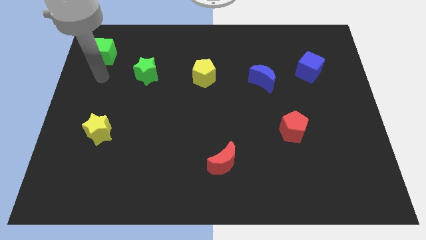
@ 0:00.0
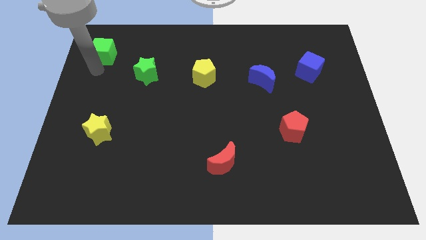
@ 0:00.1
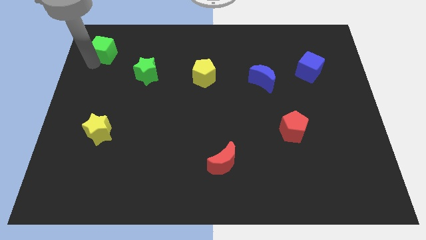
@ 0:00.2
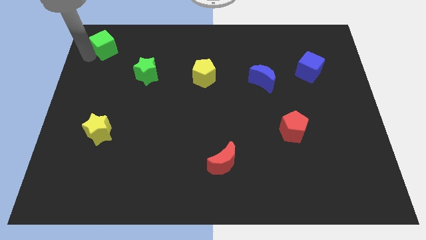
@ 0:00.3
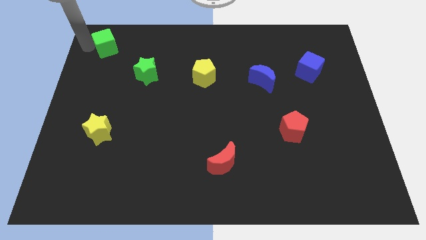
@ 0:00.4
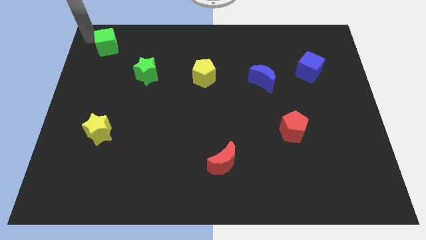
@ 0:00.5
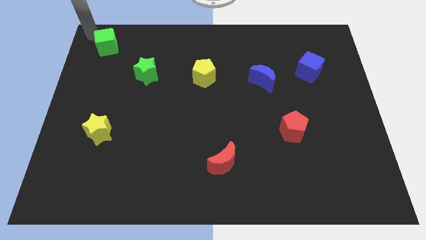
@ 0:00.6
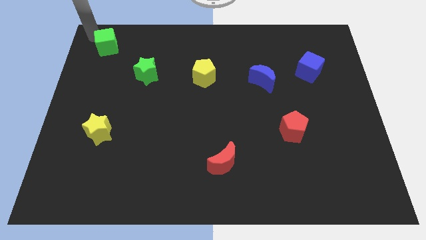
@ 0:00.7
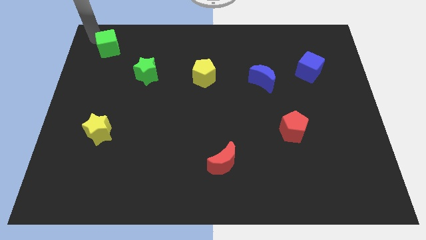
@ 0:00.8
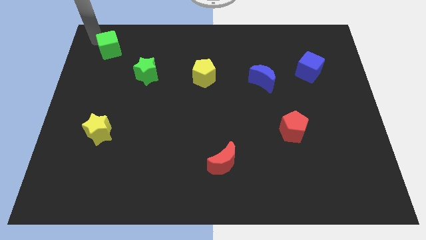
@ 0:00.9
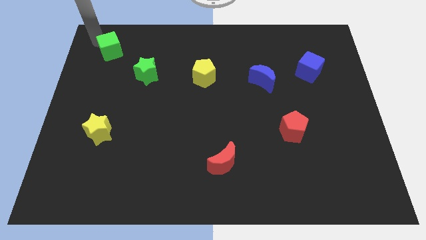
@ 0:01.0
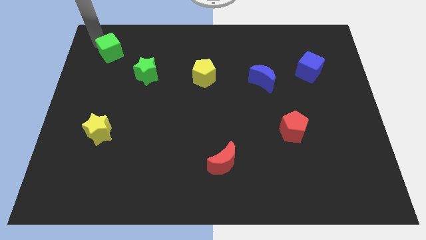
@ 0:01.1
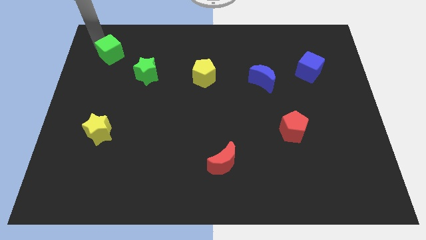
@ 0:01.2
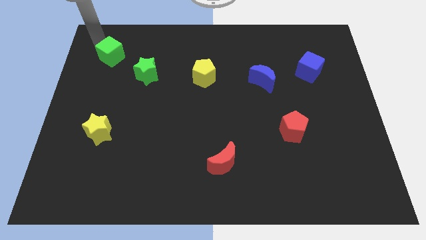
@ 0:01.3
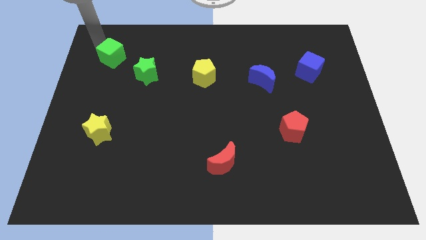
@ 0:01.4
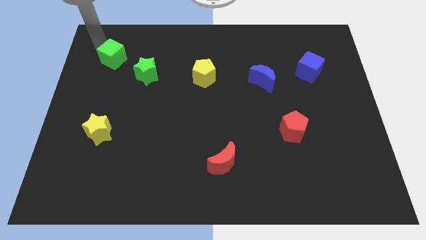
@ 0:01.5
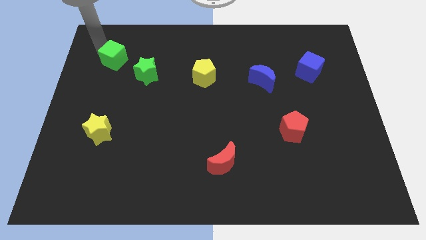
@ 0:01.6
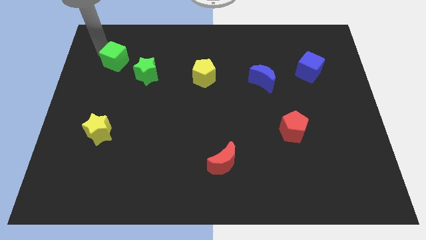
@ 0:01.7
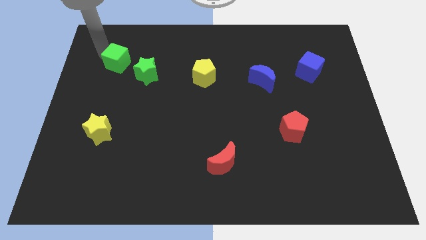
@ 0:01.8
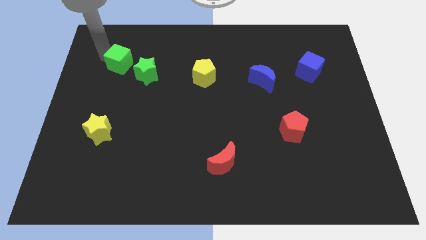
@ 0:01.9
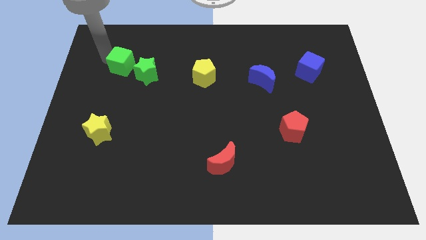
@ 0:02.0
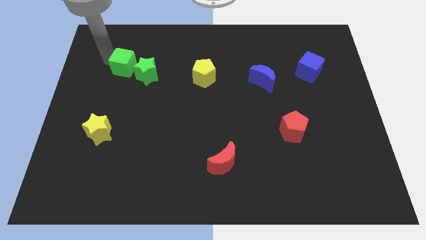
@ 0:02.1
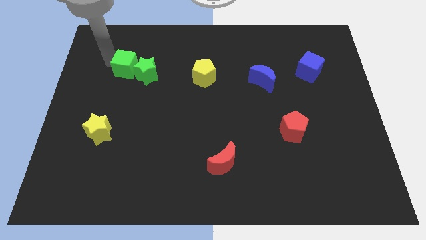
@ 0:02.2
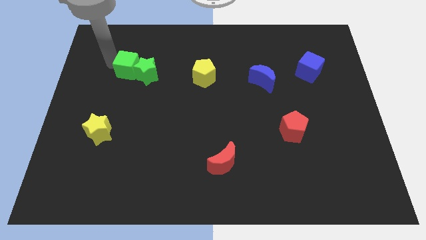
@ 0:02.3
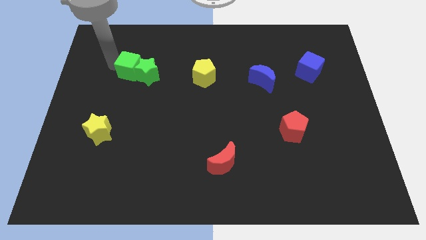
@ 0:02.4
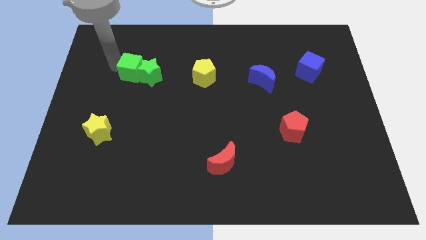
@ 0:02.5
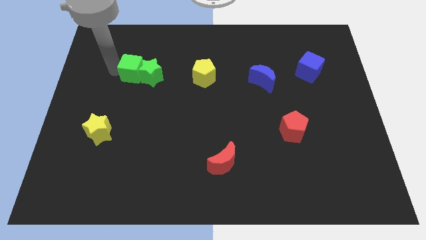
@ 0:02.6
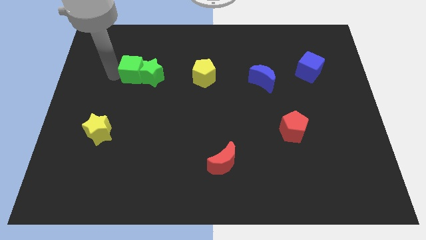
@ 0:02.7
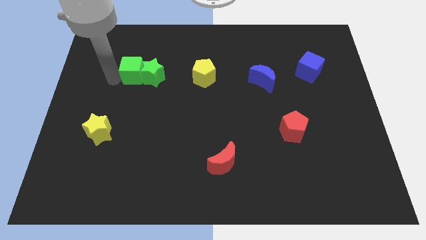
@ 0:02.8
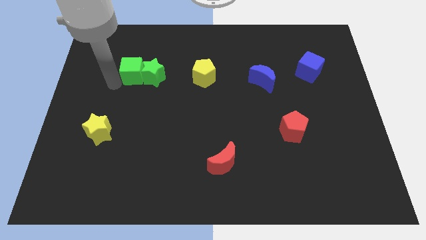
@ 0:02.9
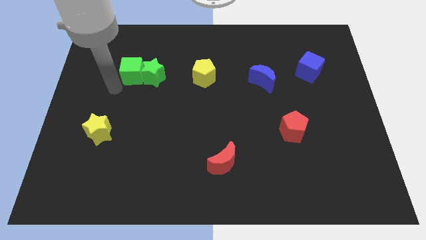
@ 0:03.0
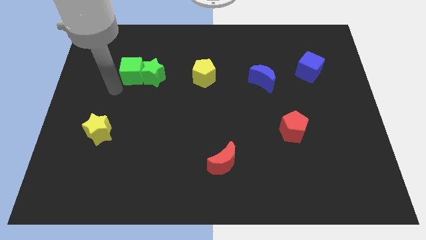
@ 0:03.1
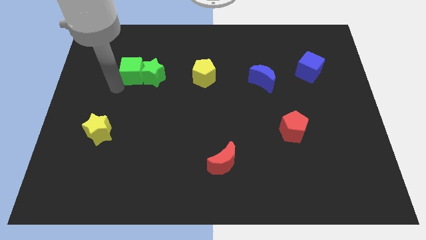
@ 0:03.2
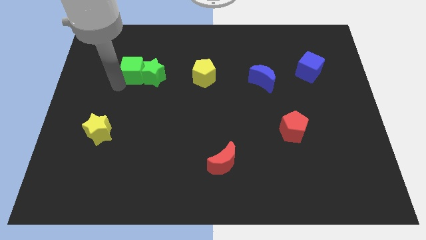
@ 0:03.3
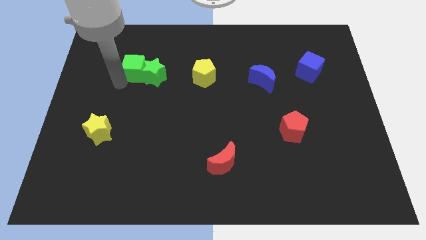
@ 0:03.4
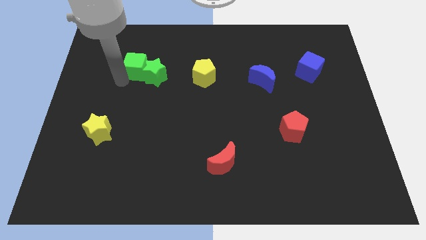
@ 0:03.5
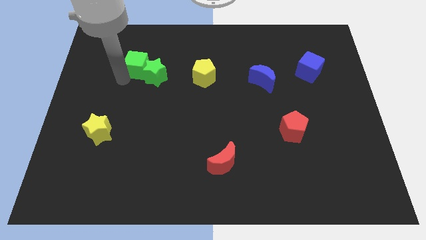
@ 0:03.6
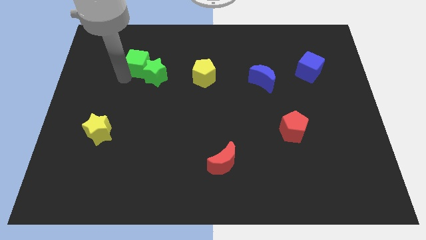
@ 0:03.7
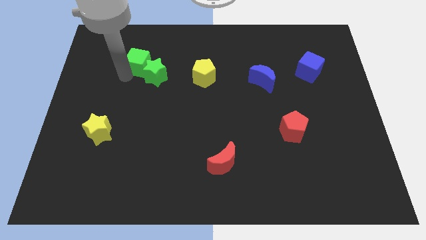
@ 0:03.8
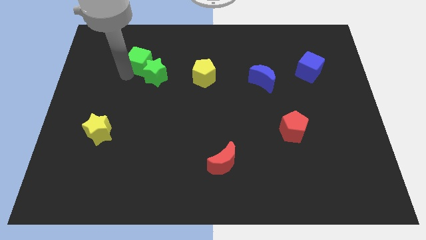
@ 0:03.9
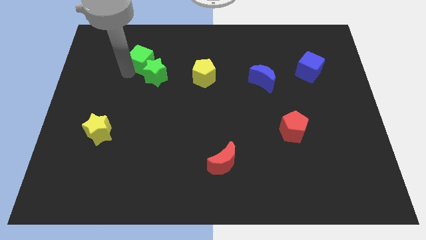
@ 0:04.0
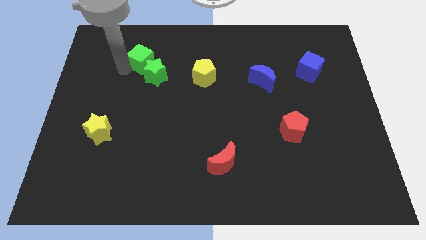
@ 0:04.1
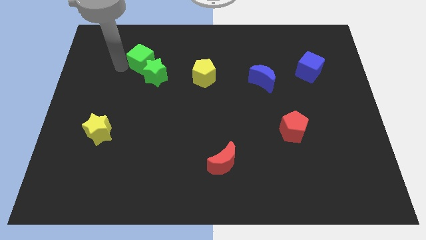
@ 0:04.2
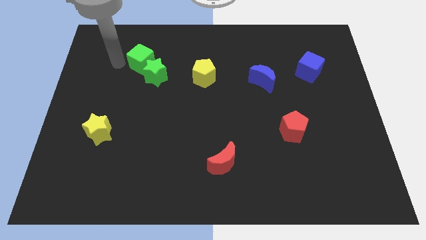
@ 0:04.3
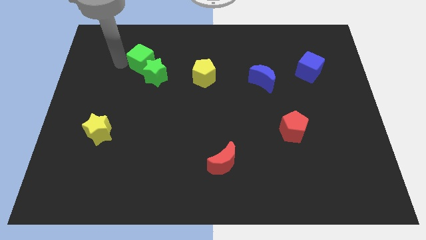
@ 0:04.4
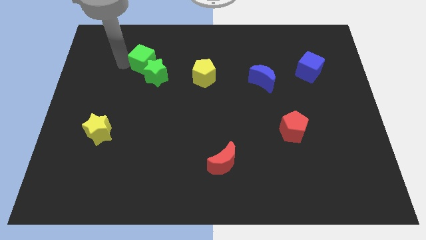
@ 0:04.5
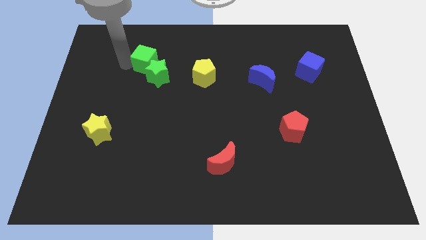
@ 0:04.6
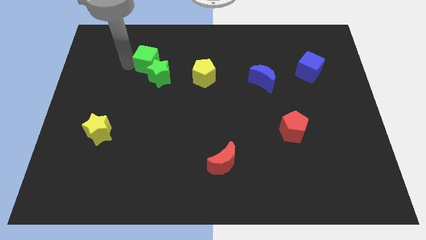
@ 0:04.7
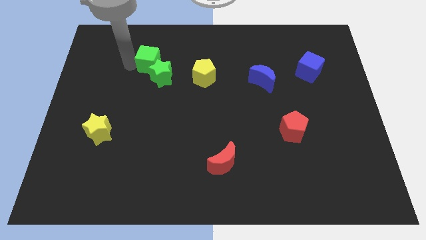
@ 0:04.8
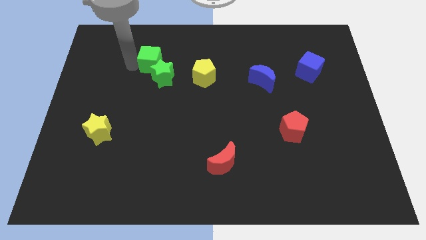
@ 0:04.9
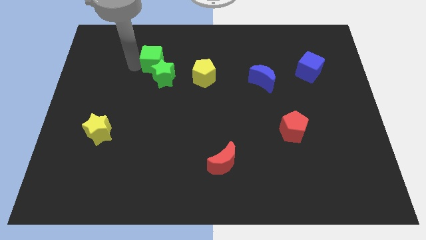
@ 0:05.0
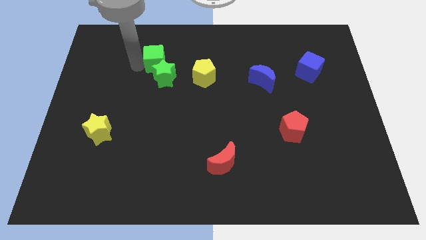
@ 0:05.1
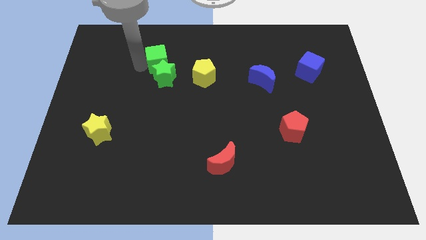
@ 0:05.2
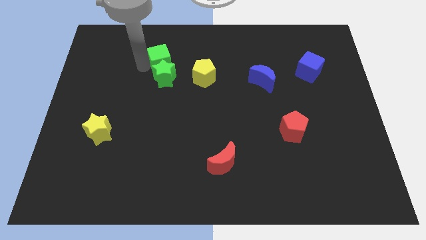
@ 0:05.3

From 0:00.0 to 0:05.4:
put the green cube just left of the yellow pentagon

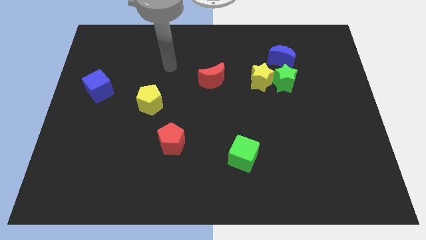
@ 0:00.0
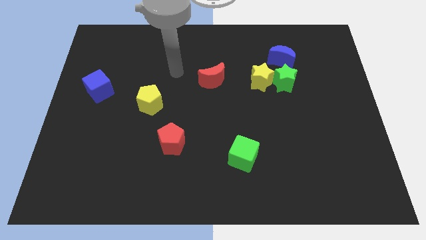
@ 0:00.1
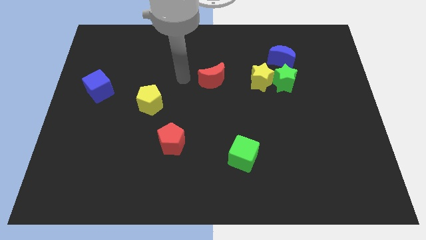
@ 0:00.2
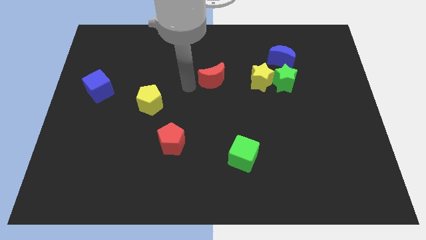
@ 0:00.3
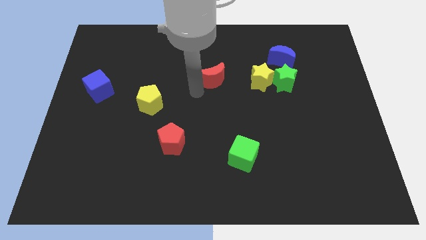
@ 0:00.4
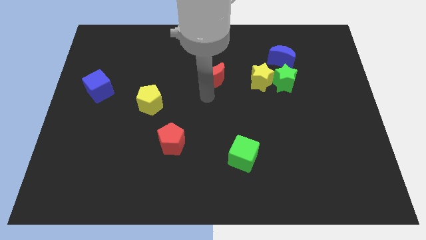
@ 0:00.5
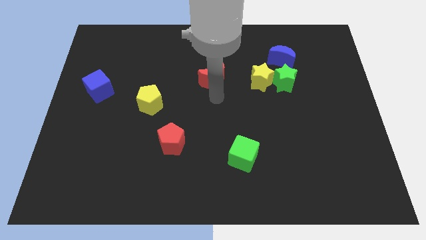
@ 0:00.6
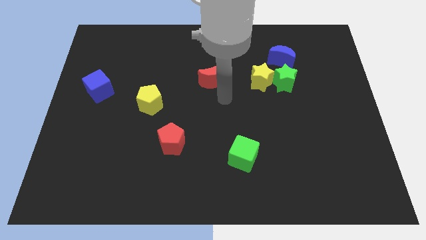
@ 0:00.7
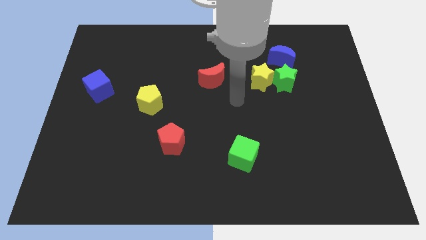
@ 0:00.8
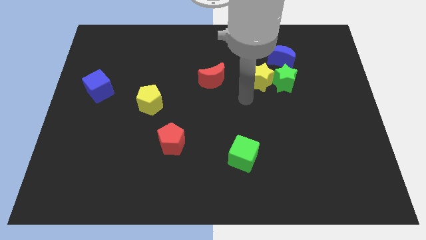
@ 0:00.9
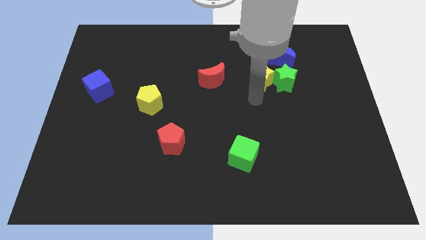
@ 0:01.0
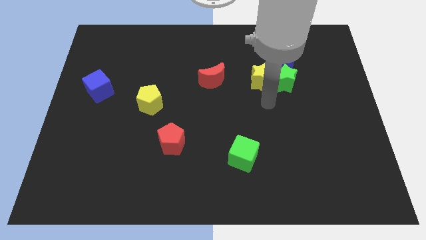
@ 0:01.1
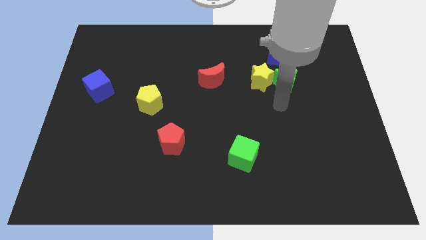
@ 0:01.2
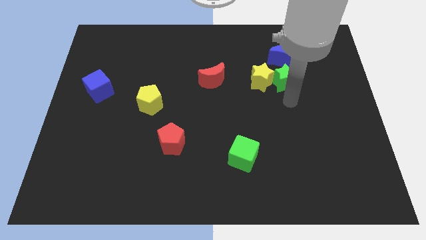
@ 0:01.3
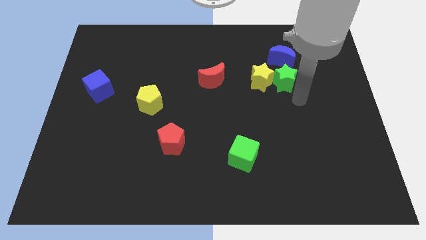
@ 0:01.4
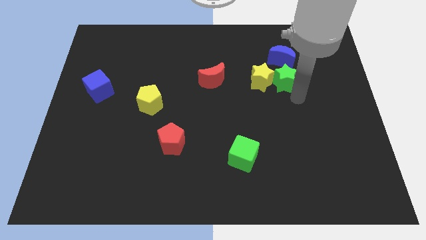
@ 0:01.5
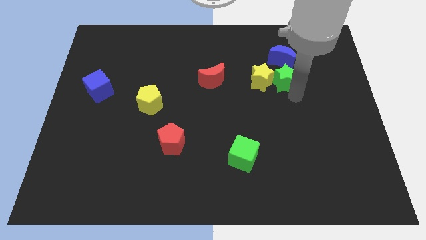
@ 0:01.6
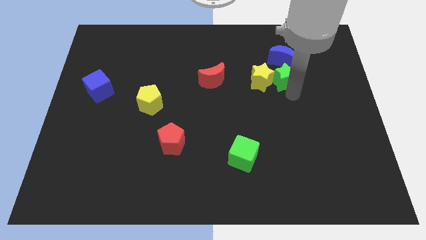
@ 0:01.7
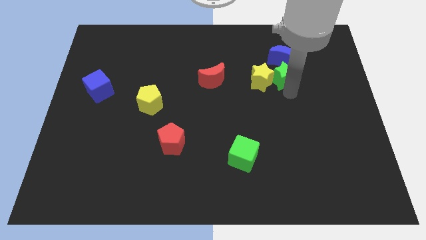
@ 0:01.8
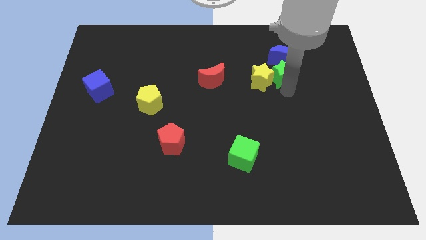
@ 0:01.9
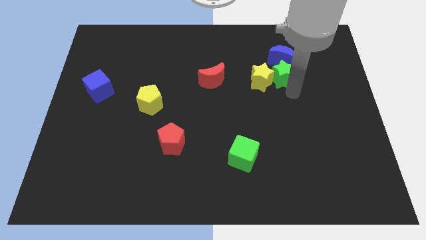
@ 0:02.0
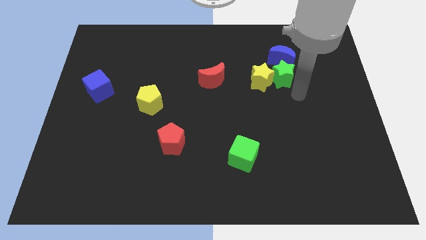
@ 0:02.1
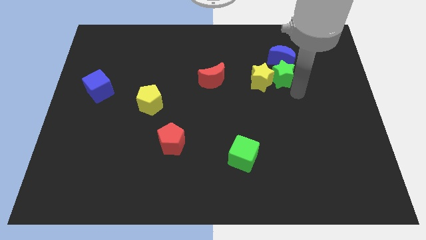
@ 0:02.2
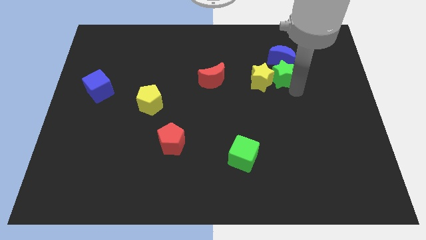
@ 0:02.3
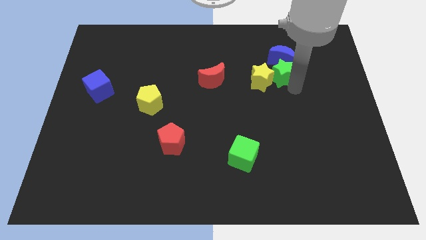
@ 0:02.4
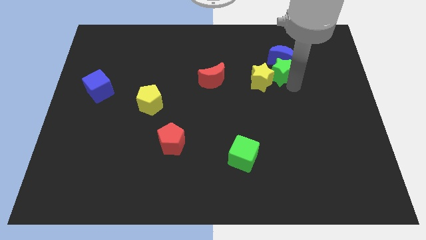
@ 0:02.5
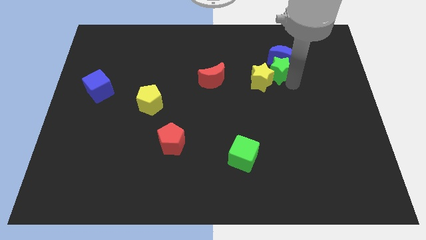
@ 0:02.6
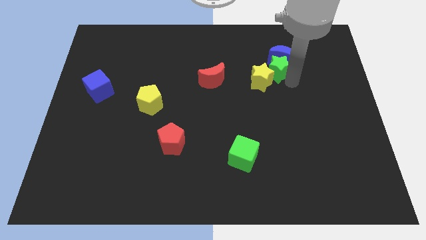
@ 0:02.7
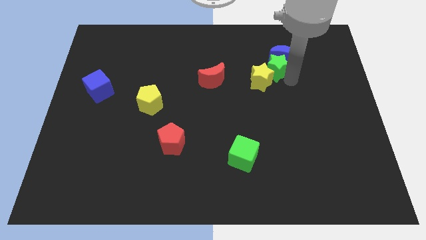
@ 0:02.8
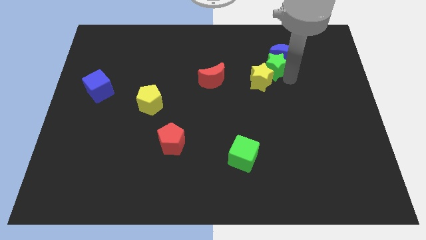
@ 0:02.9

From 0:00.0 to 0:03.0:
slide the green star to the left side of the blue moon
